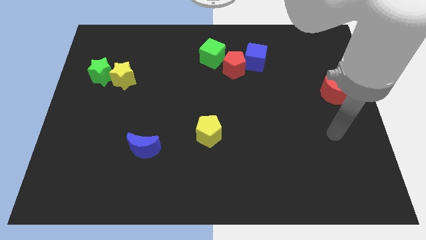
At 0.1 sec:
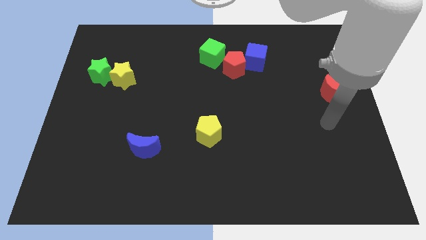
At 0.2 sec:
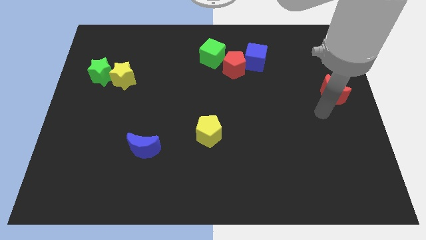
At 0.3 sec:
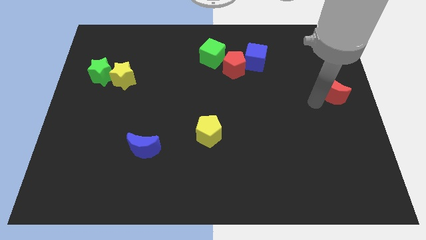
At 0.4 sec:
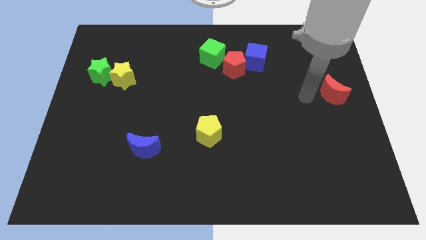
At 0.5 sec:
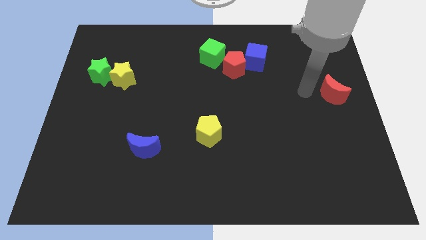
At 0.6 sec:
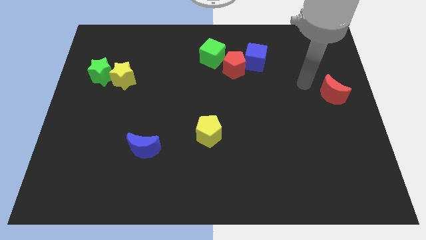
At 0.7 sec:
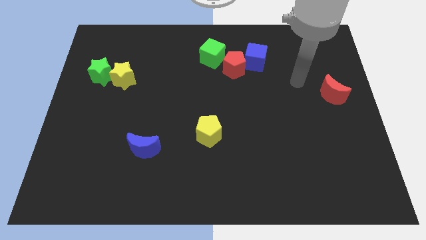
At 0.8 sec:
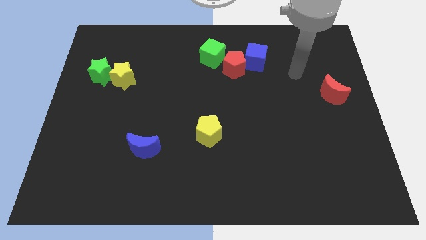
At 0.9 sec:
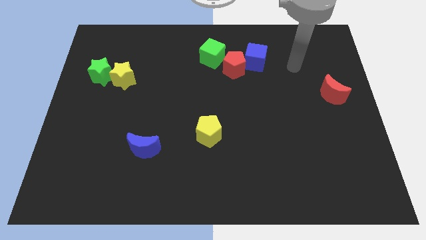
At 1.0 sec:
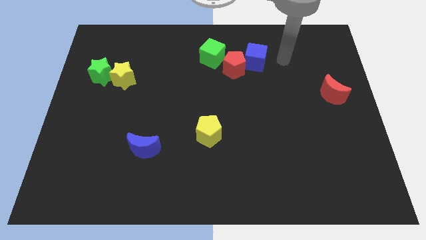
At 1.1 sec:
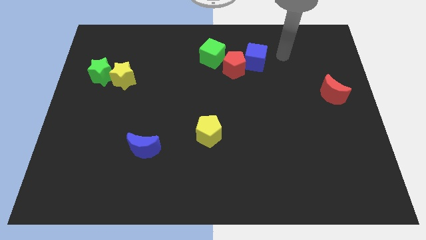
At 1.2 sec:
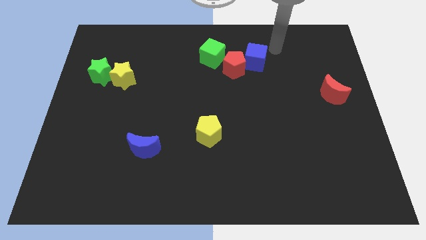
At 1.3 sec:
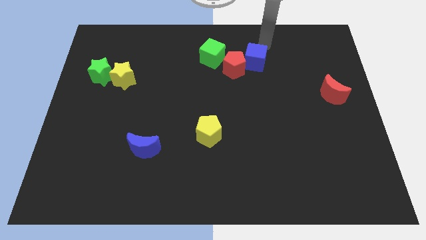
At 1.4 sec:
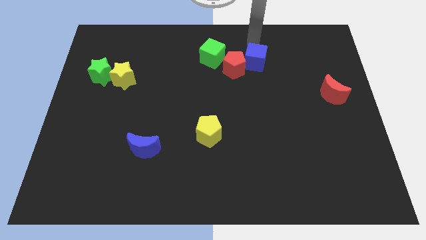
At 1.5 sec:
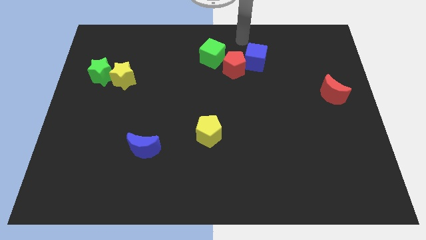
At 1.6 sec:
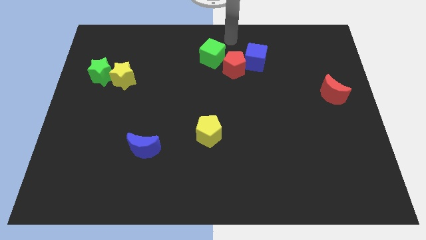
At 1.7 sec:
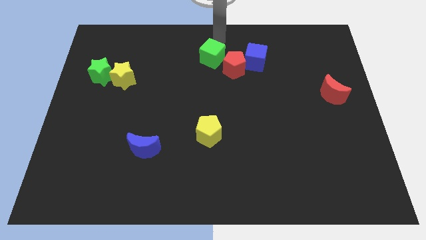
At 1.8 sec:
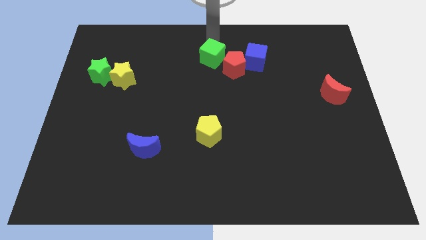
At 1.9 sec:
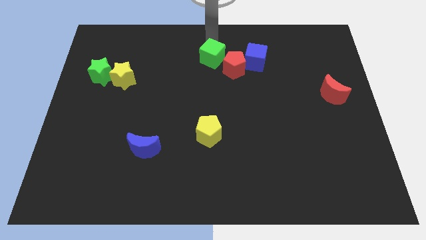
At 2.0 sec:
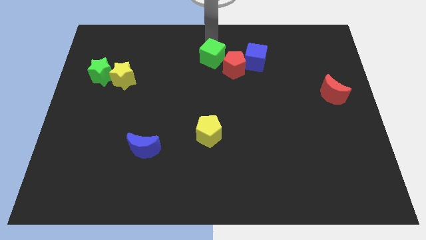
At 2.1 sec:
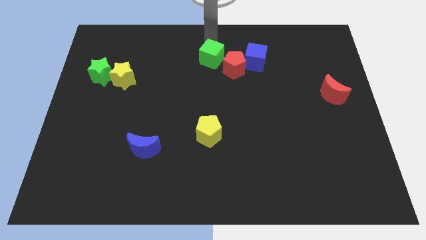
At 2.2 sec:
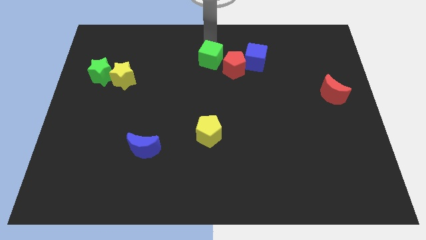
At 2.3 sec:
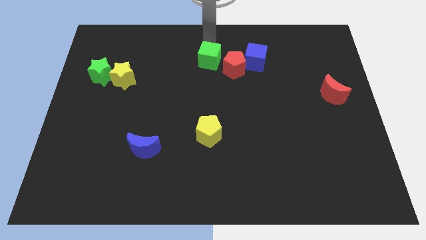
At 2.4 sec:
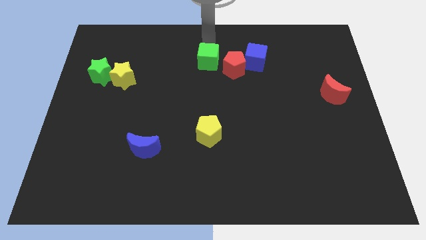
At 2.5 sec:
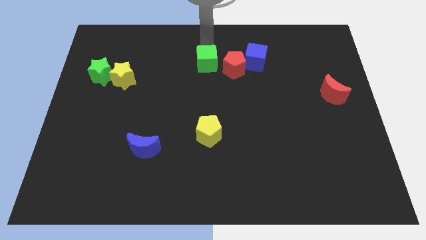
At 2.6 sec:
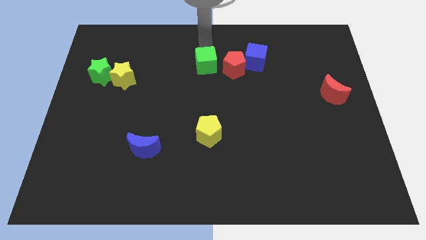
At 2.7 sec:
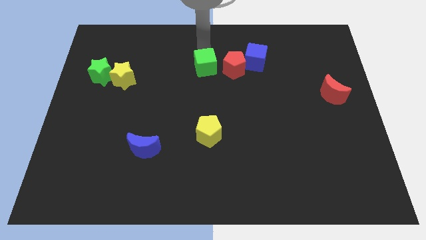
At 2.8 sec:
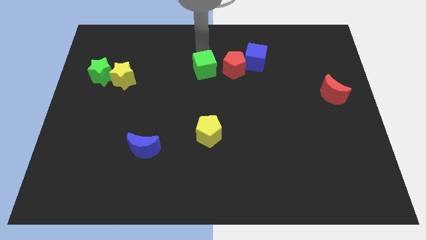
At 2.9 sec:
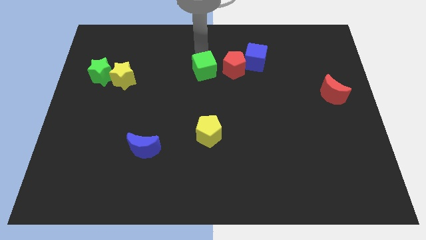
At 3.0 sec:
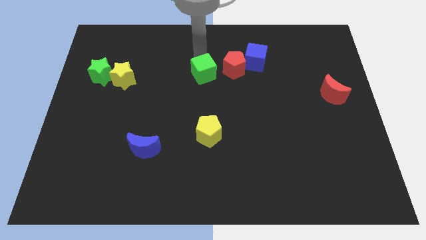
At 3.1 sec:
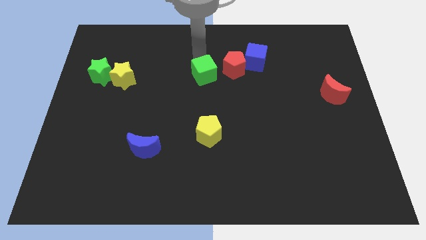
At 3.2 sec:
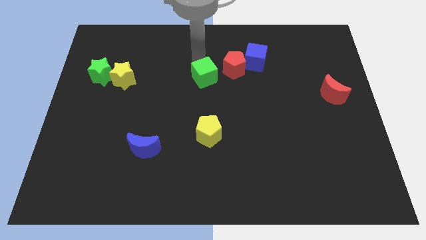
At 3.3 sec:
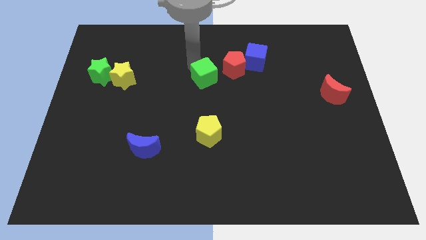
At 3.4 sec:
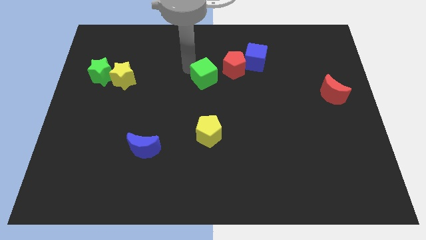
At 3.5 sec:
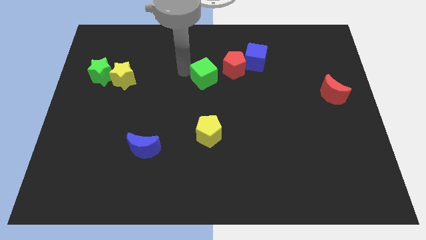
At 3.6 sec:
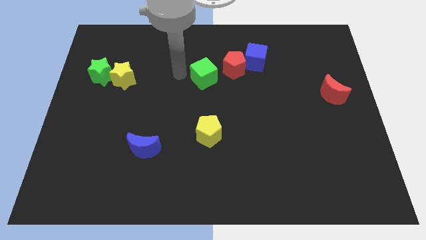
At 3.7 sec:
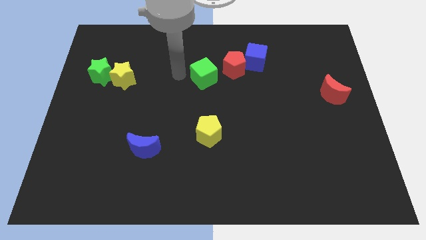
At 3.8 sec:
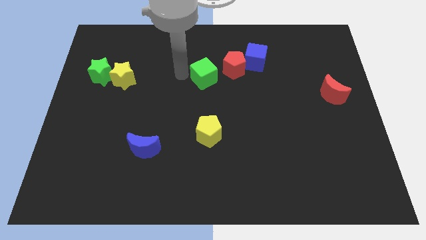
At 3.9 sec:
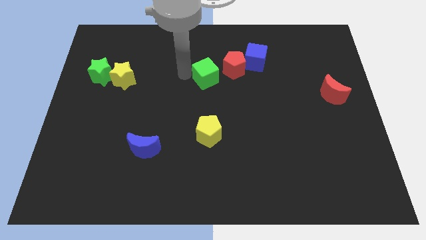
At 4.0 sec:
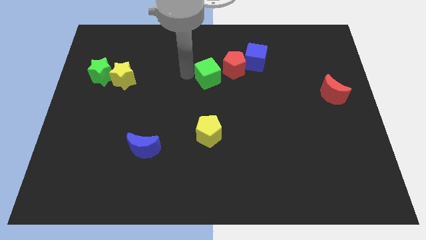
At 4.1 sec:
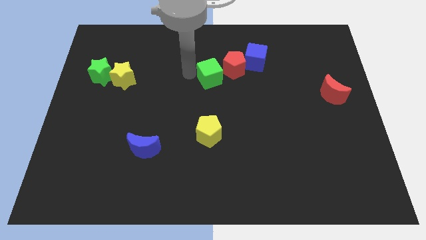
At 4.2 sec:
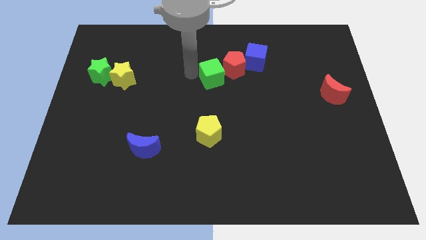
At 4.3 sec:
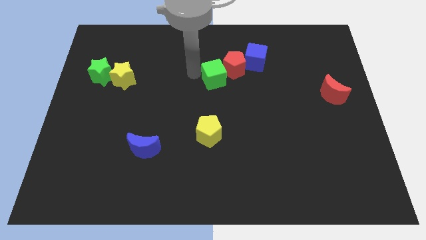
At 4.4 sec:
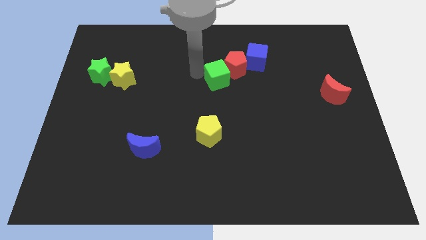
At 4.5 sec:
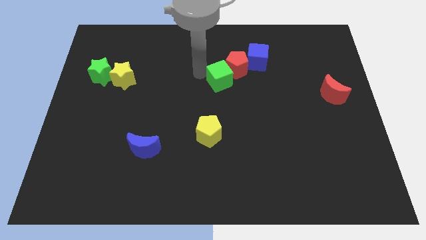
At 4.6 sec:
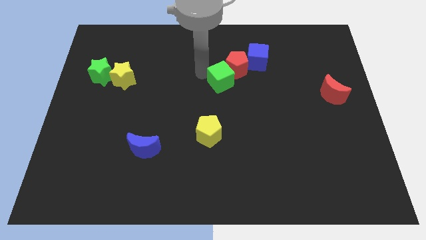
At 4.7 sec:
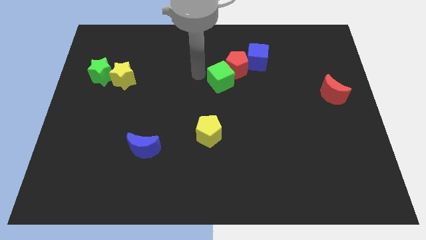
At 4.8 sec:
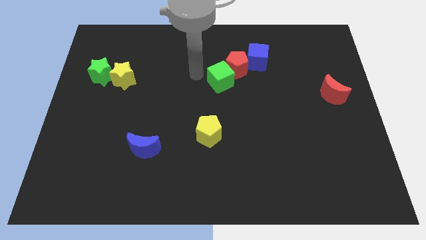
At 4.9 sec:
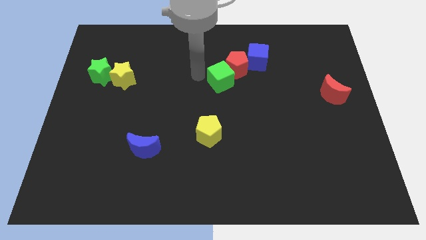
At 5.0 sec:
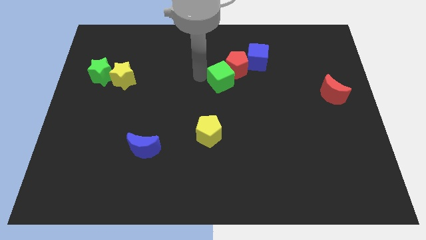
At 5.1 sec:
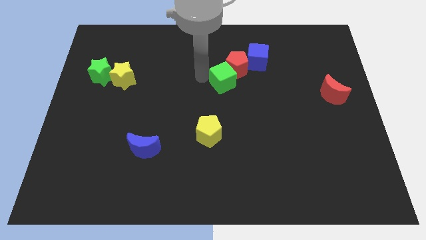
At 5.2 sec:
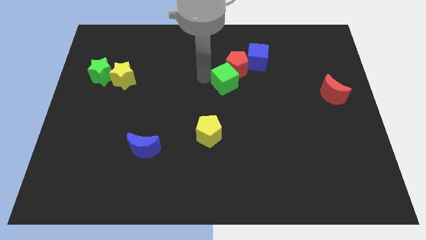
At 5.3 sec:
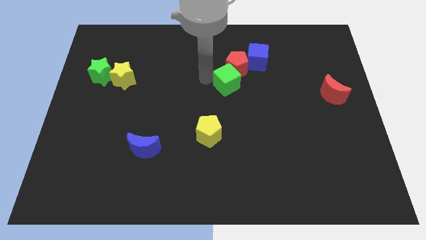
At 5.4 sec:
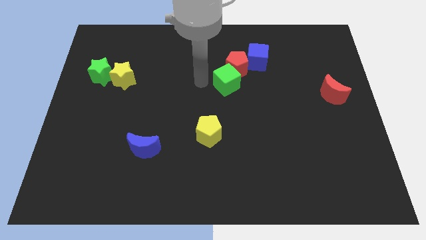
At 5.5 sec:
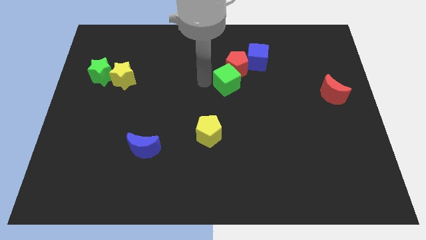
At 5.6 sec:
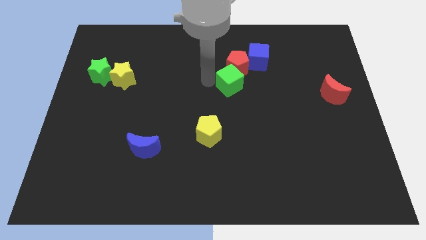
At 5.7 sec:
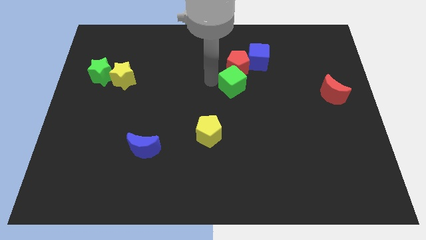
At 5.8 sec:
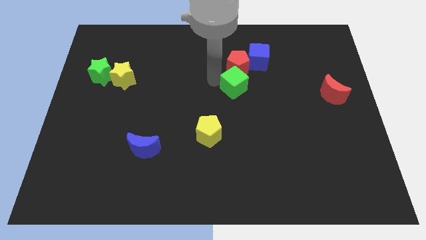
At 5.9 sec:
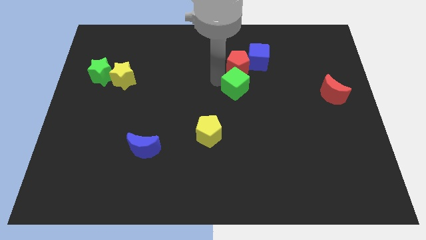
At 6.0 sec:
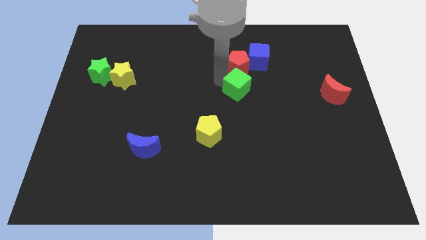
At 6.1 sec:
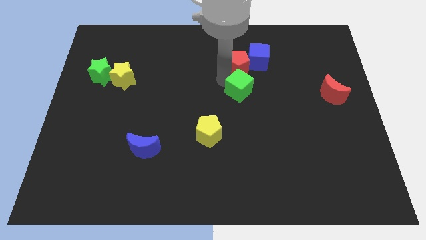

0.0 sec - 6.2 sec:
put the green cube to the bottom right side of the red pentagon

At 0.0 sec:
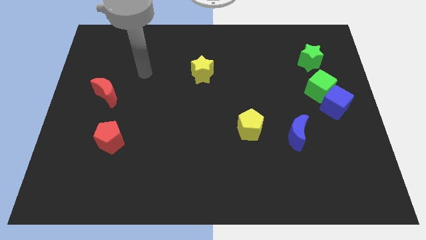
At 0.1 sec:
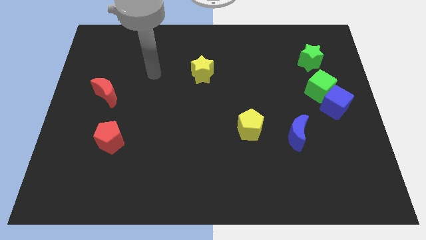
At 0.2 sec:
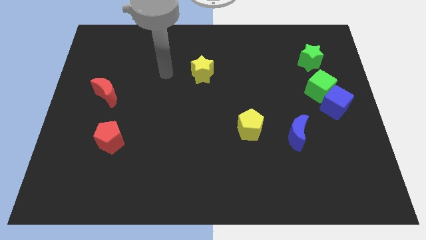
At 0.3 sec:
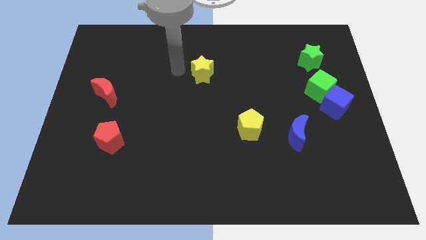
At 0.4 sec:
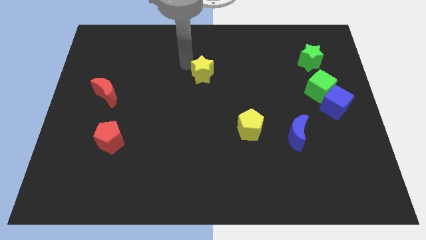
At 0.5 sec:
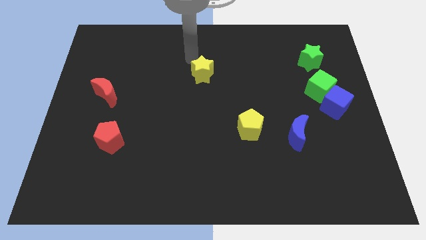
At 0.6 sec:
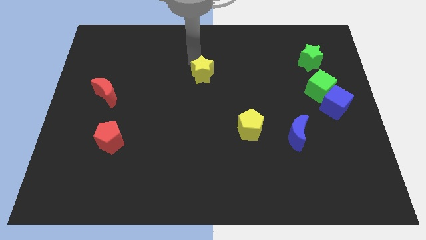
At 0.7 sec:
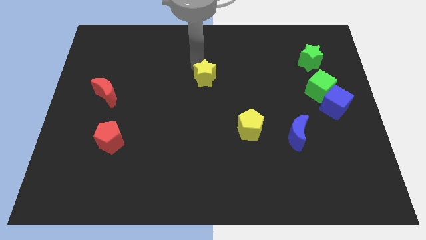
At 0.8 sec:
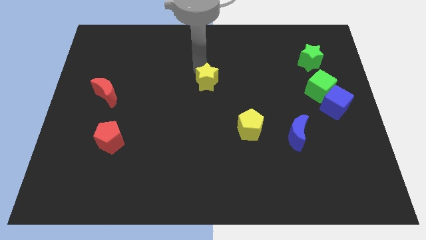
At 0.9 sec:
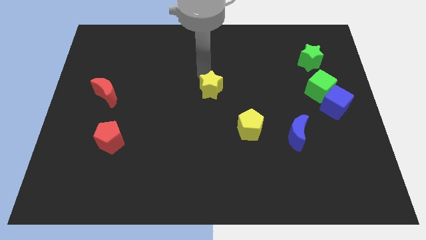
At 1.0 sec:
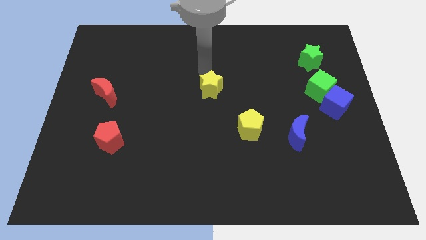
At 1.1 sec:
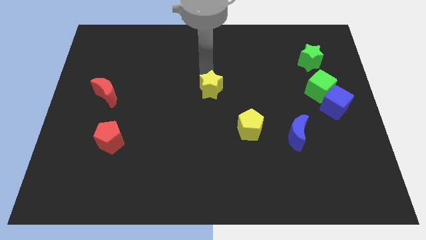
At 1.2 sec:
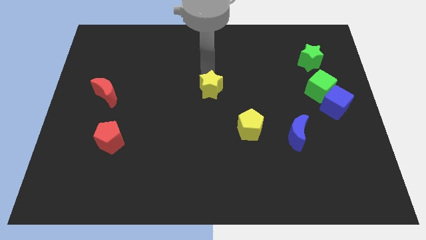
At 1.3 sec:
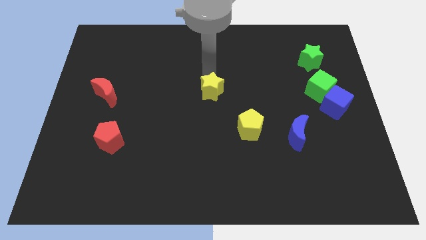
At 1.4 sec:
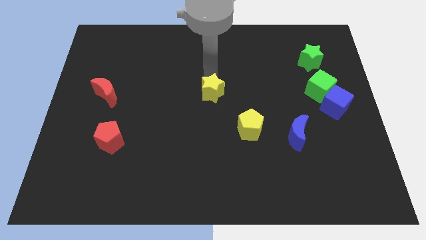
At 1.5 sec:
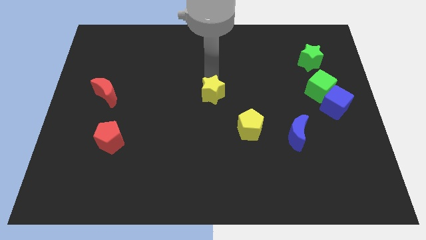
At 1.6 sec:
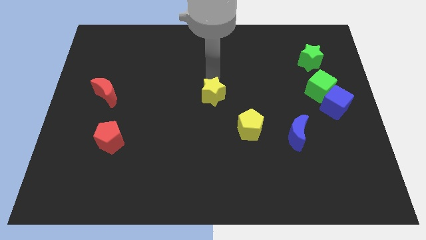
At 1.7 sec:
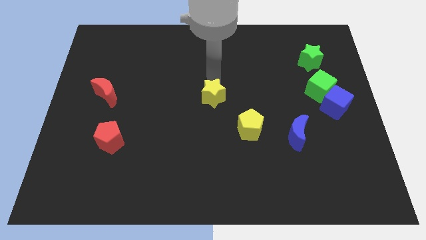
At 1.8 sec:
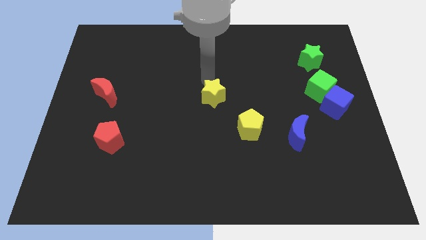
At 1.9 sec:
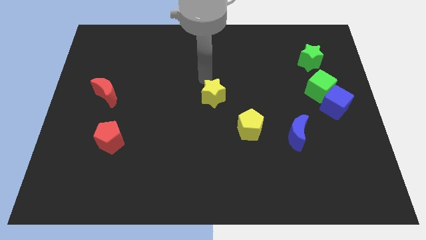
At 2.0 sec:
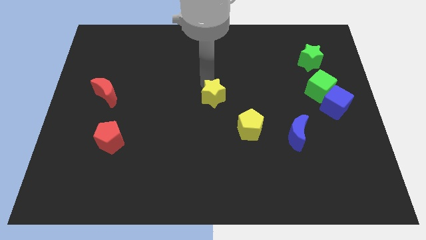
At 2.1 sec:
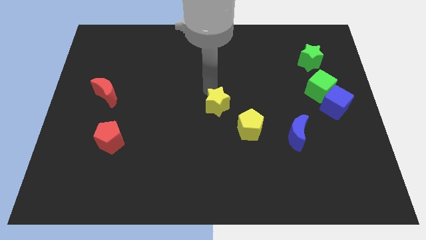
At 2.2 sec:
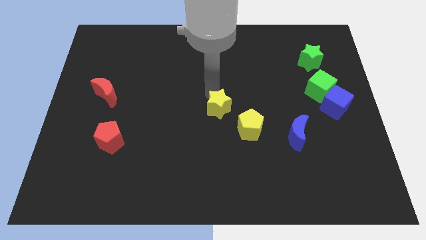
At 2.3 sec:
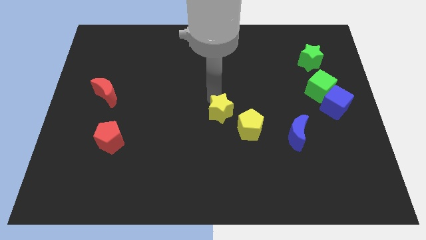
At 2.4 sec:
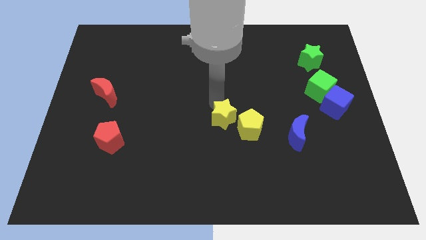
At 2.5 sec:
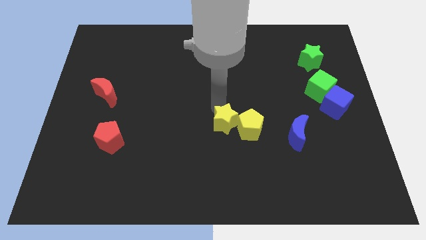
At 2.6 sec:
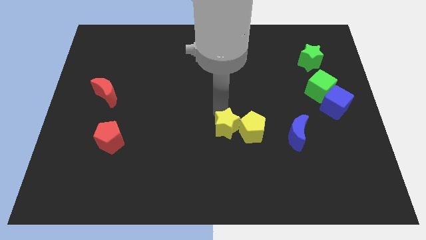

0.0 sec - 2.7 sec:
move the yellow star to the left side of the blue moon
